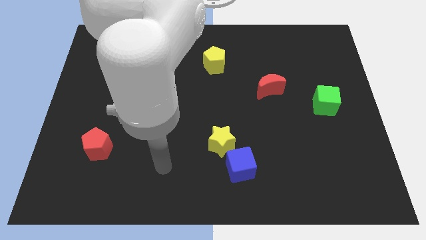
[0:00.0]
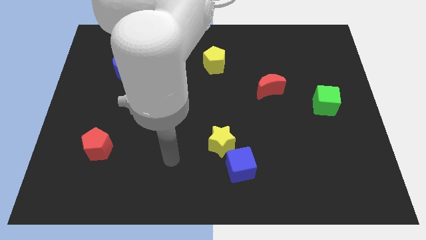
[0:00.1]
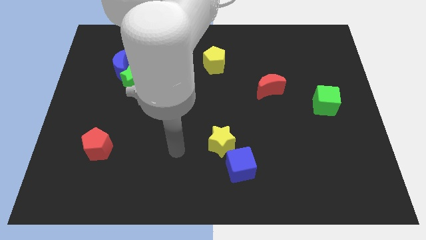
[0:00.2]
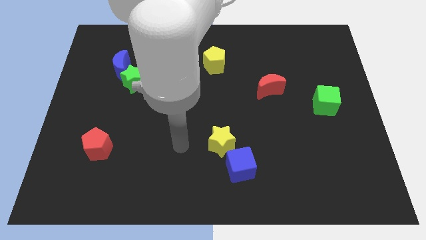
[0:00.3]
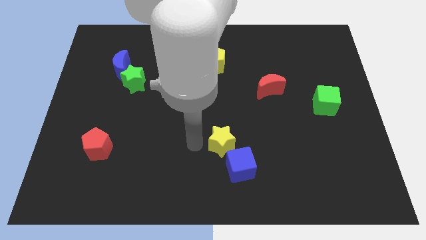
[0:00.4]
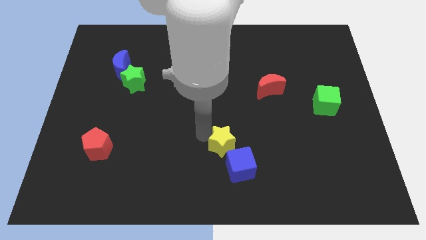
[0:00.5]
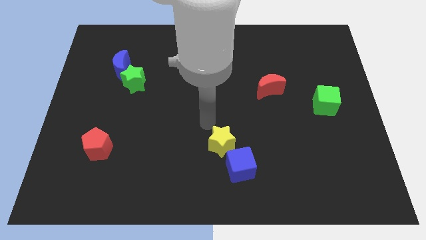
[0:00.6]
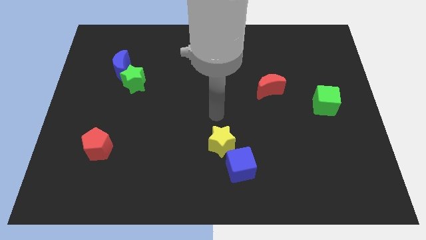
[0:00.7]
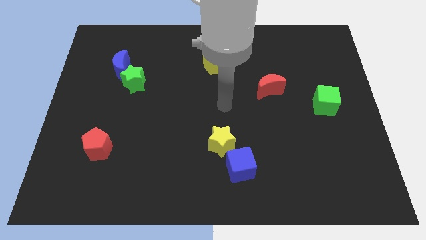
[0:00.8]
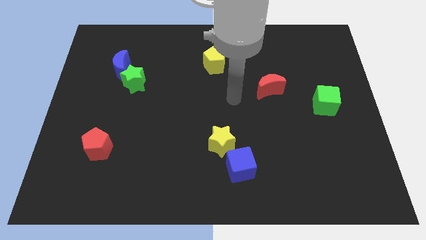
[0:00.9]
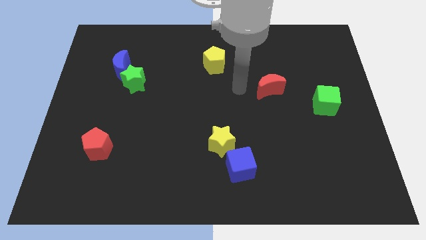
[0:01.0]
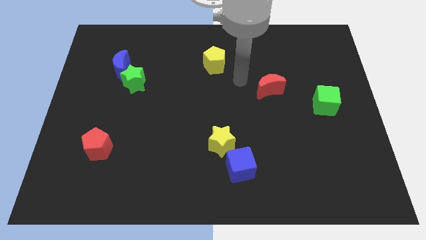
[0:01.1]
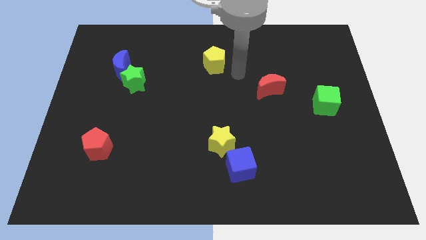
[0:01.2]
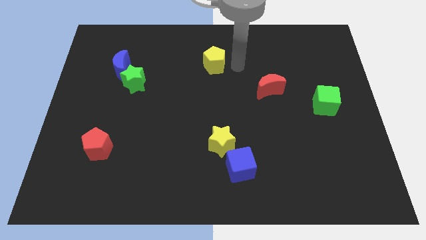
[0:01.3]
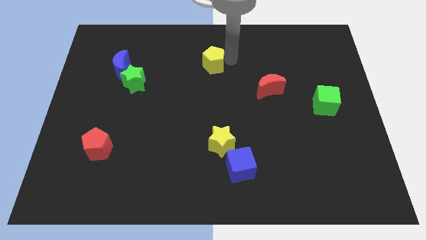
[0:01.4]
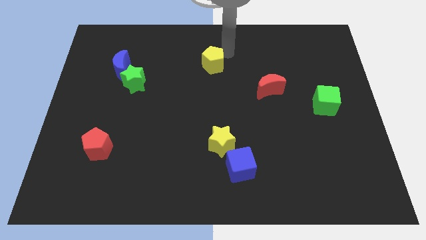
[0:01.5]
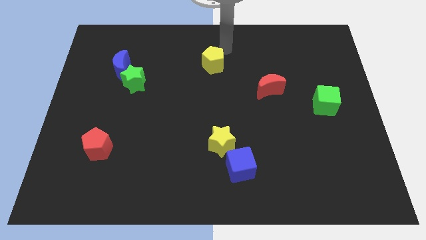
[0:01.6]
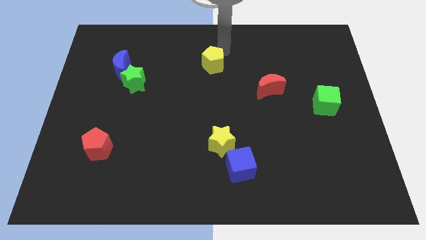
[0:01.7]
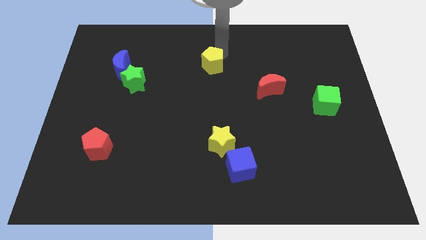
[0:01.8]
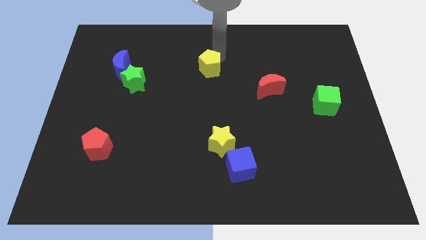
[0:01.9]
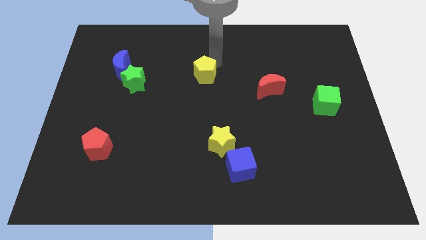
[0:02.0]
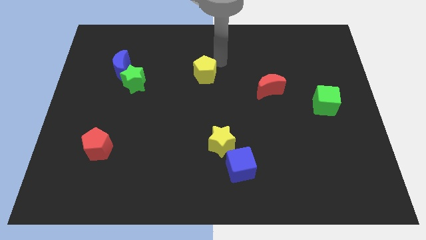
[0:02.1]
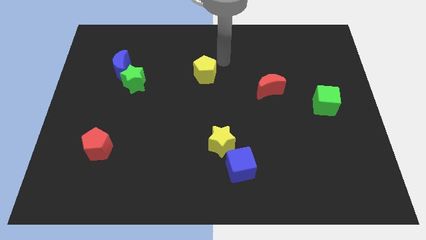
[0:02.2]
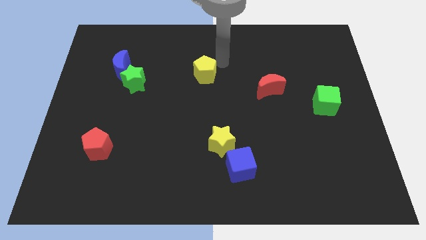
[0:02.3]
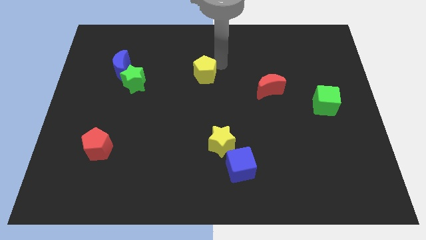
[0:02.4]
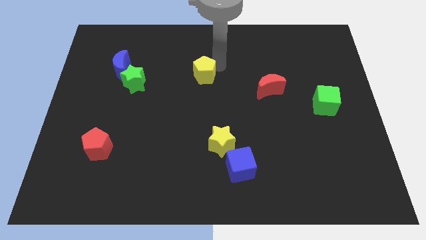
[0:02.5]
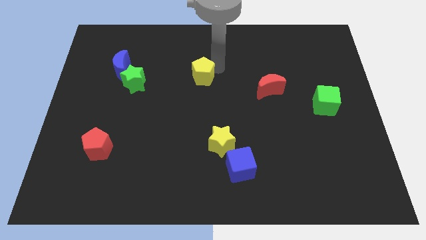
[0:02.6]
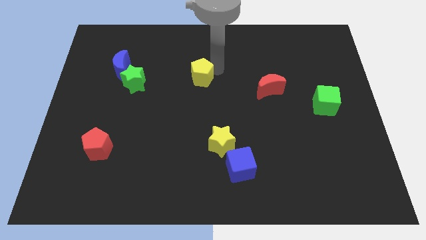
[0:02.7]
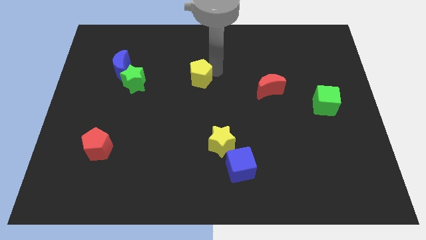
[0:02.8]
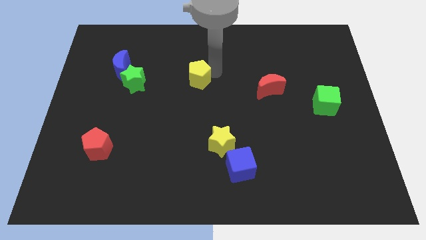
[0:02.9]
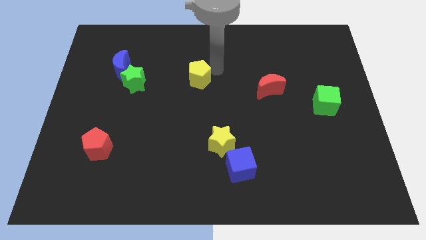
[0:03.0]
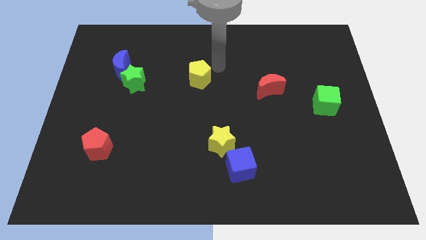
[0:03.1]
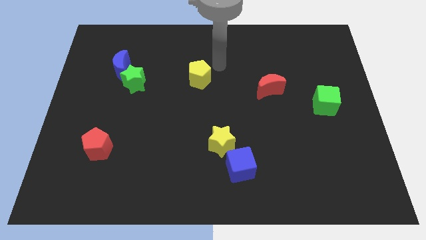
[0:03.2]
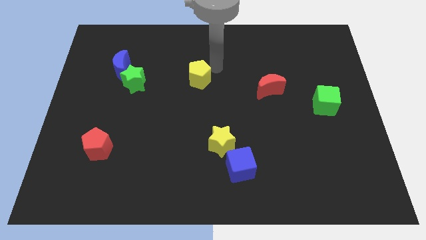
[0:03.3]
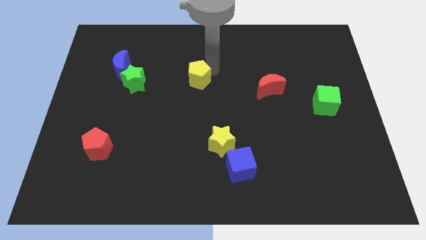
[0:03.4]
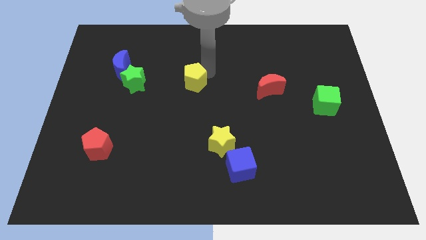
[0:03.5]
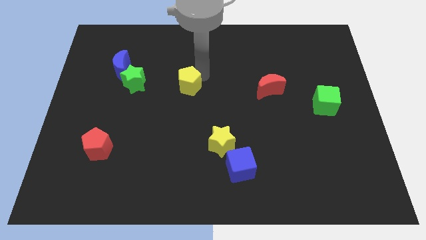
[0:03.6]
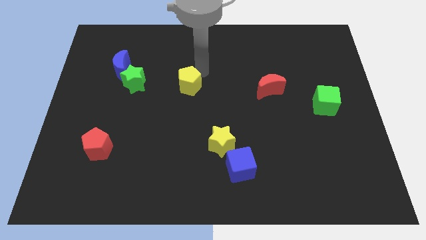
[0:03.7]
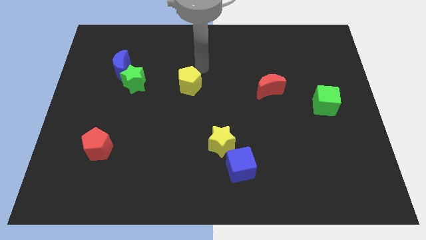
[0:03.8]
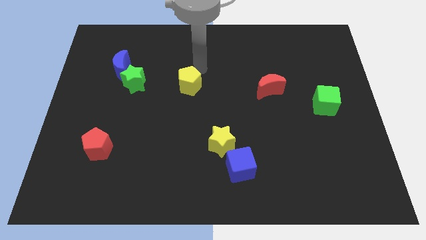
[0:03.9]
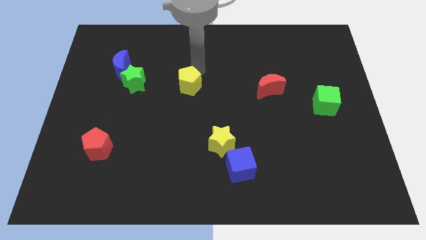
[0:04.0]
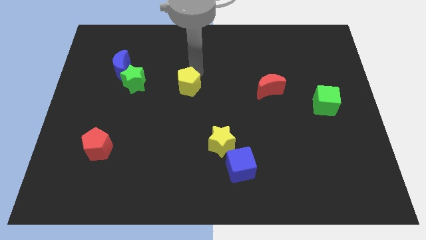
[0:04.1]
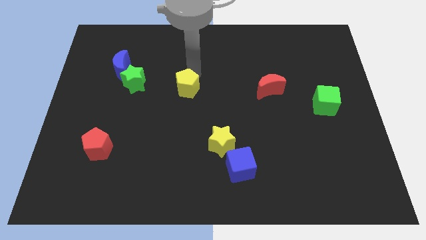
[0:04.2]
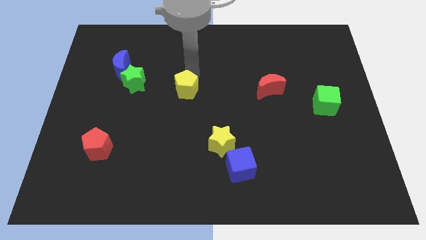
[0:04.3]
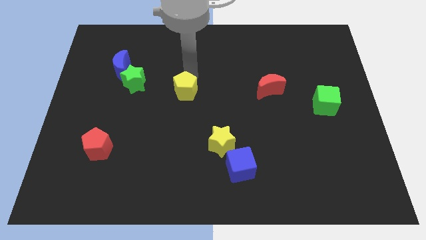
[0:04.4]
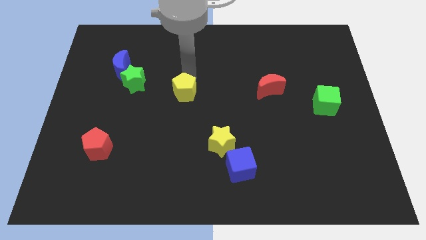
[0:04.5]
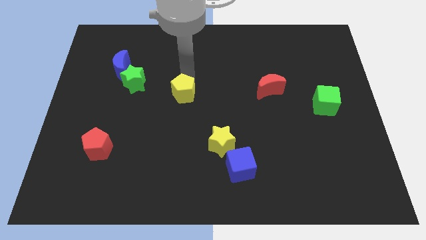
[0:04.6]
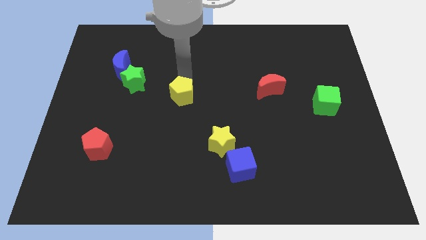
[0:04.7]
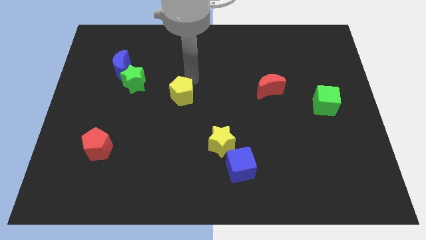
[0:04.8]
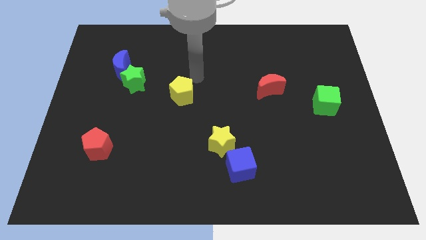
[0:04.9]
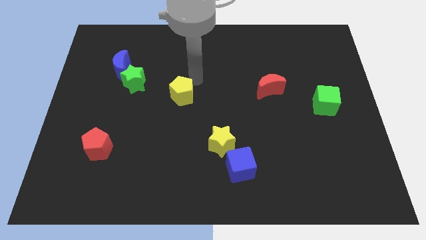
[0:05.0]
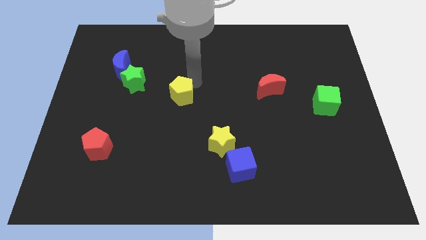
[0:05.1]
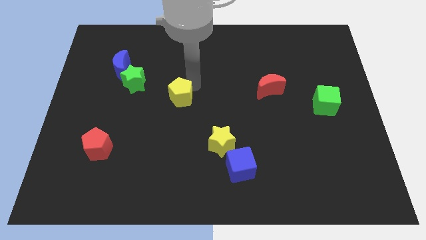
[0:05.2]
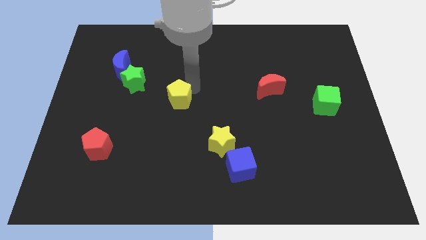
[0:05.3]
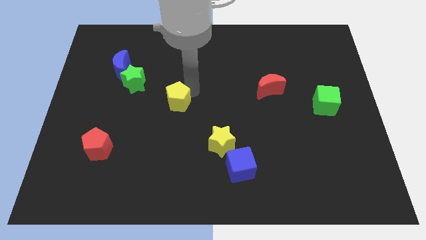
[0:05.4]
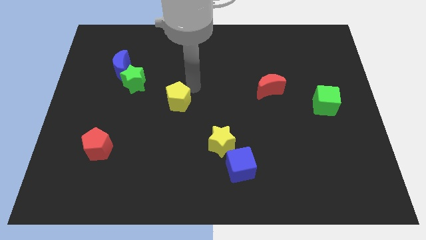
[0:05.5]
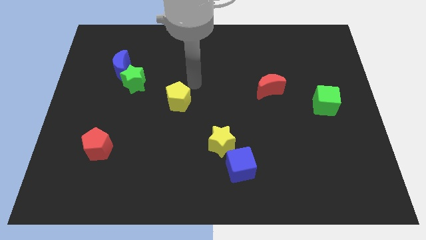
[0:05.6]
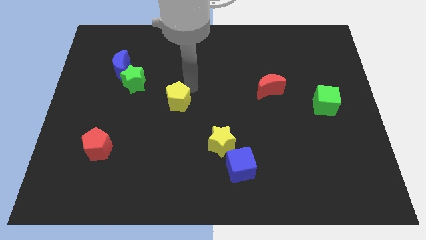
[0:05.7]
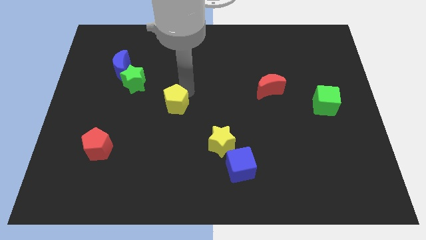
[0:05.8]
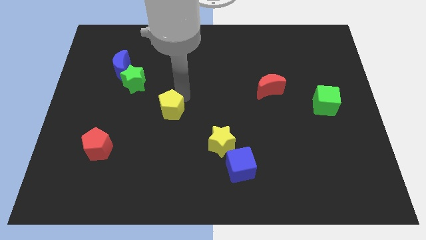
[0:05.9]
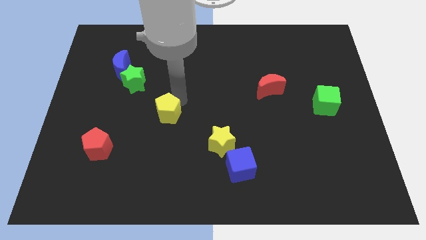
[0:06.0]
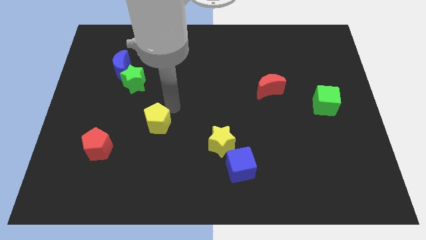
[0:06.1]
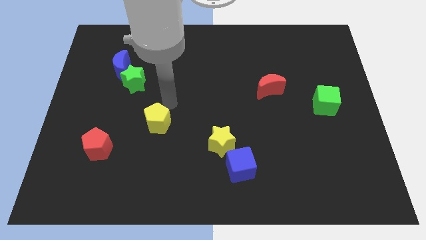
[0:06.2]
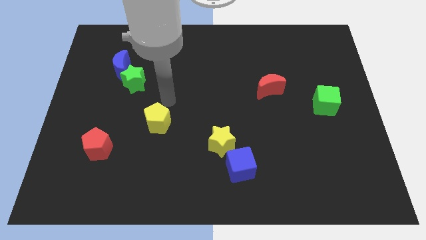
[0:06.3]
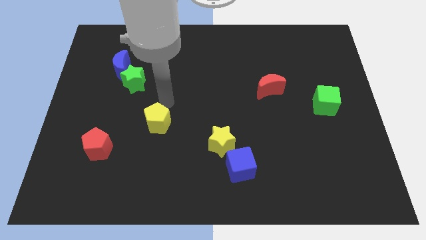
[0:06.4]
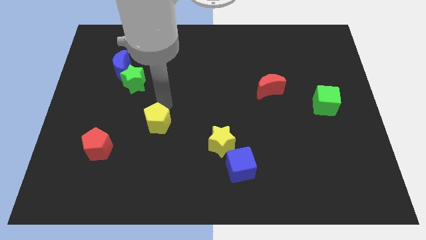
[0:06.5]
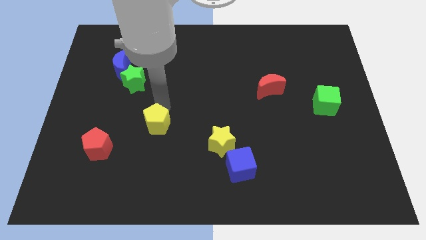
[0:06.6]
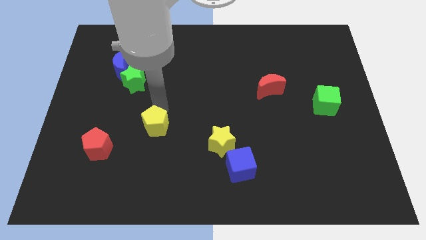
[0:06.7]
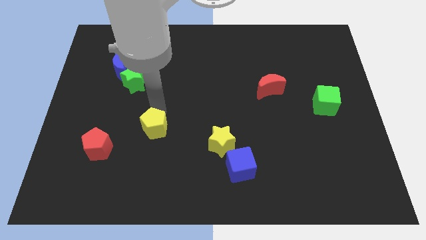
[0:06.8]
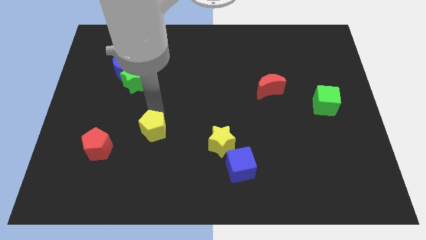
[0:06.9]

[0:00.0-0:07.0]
slide the yellow pentagon to the right side of the red pentagon

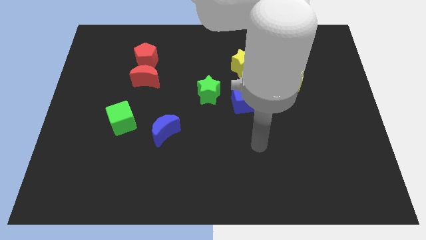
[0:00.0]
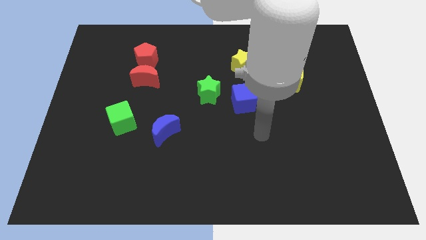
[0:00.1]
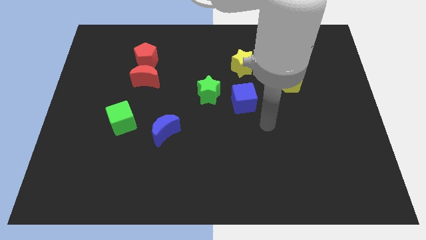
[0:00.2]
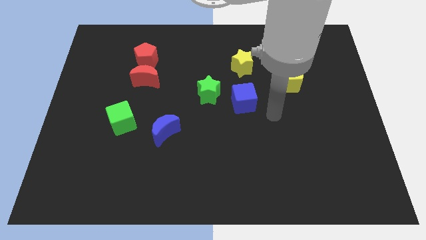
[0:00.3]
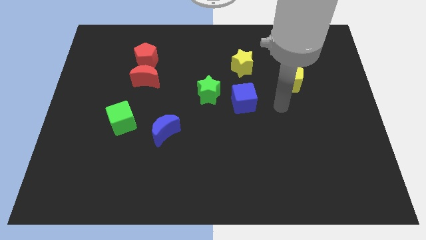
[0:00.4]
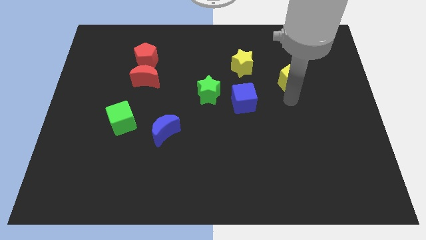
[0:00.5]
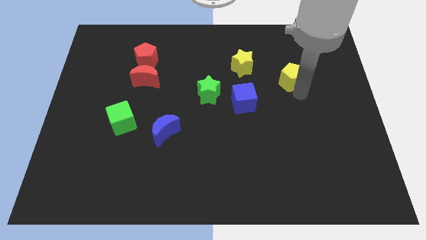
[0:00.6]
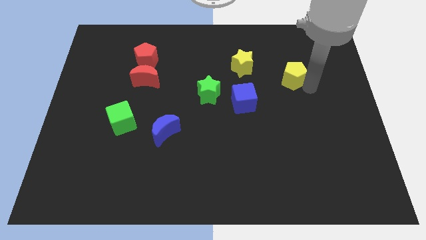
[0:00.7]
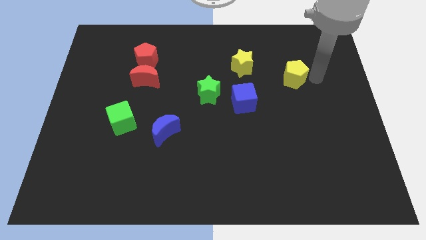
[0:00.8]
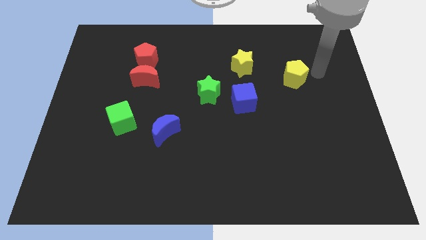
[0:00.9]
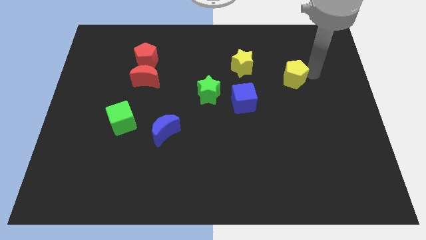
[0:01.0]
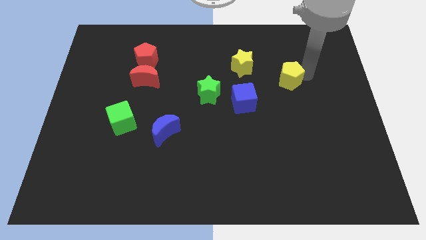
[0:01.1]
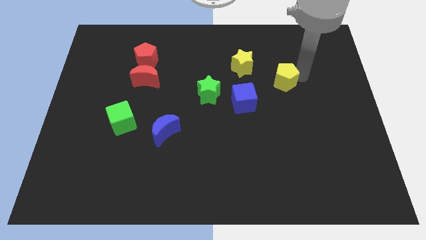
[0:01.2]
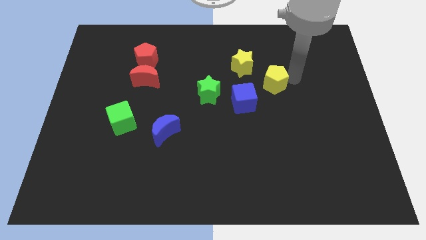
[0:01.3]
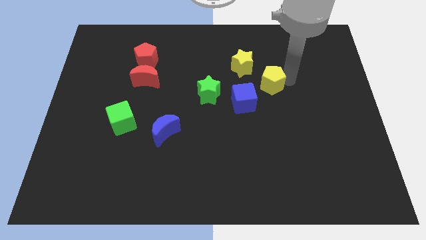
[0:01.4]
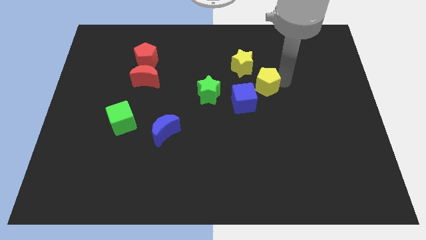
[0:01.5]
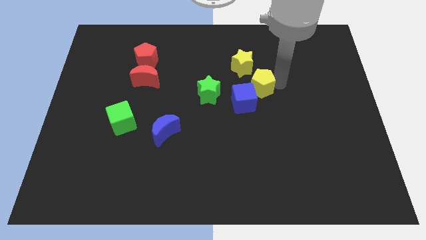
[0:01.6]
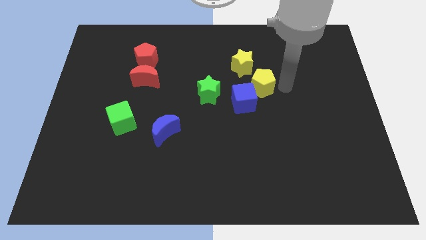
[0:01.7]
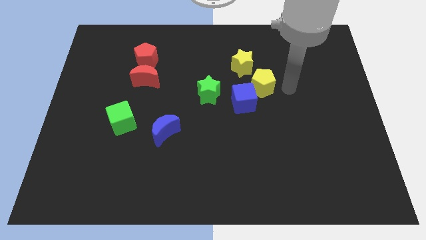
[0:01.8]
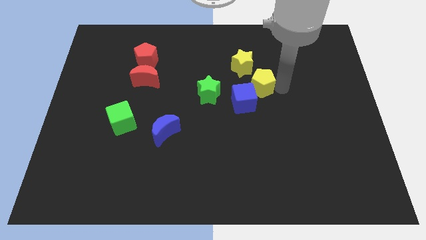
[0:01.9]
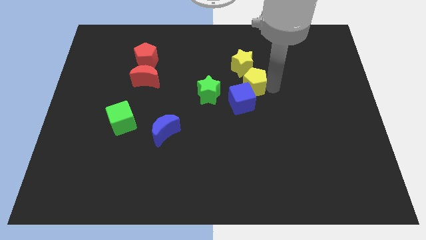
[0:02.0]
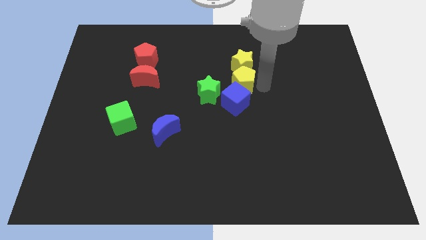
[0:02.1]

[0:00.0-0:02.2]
move the yellow pentagon diagonally down and to the left of the yellow star
